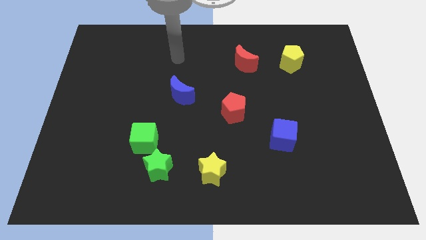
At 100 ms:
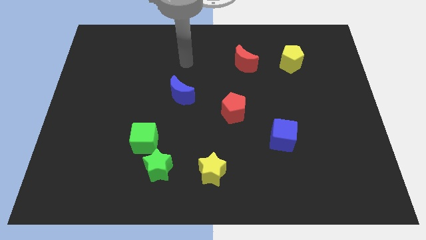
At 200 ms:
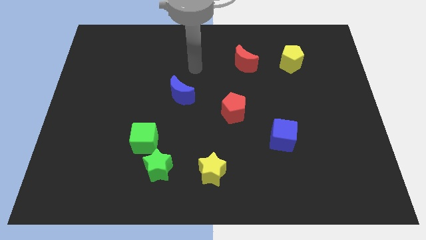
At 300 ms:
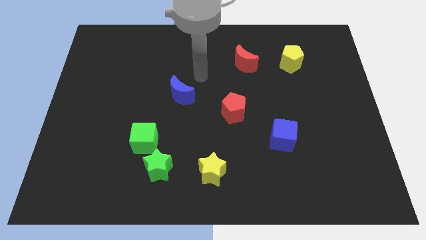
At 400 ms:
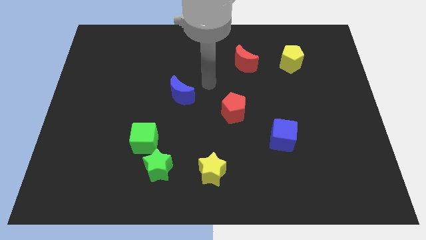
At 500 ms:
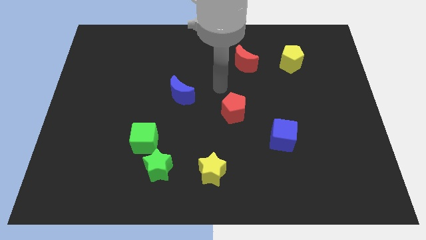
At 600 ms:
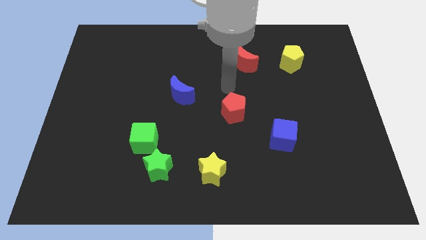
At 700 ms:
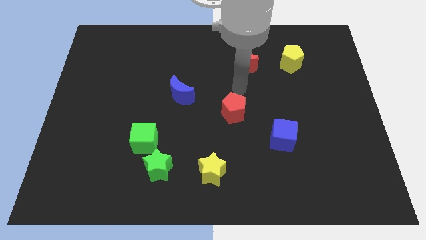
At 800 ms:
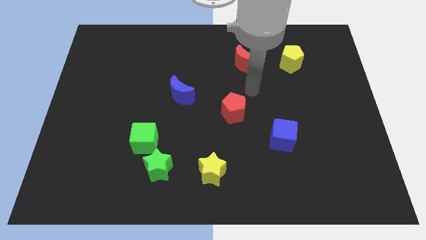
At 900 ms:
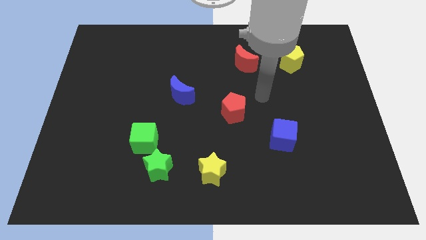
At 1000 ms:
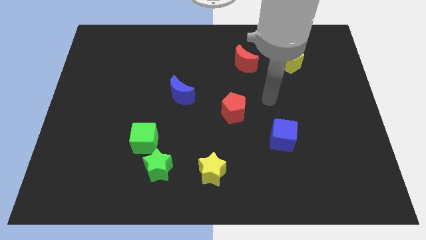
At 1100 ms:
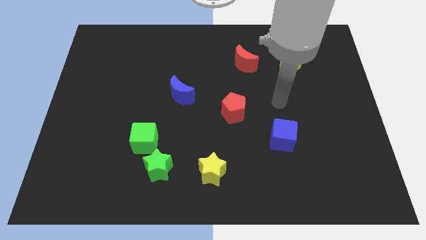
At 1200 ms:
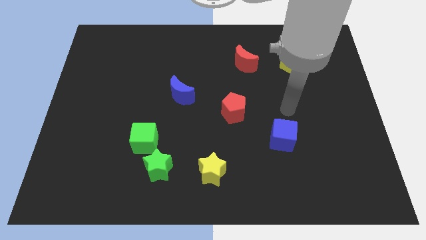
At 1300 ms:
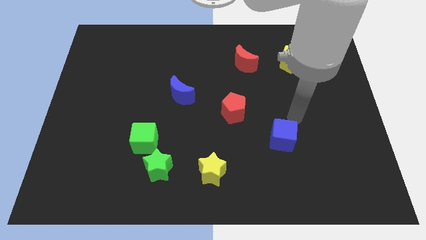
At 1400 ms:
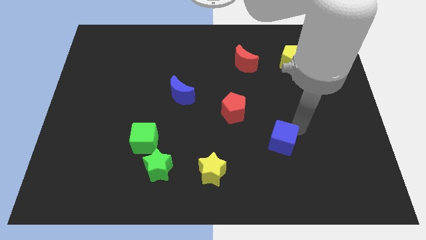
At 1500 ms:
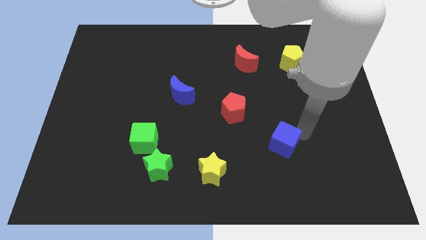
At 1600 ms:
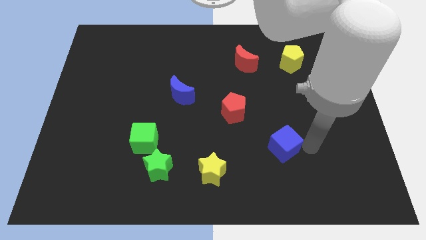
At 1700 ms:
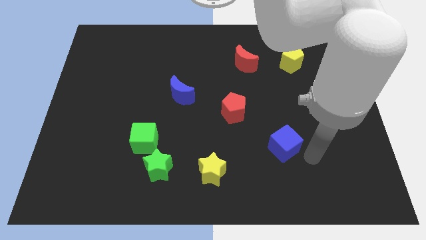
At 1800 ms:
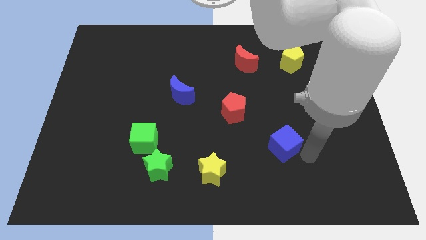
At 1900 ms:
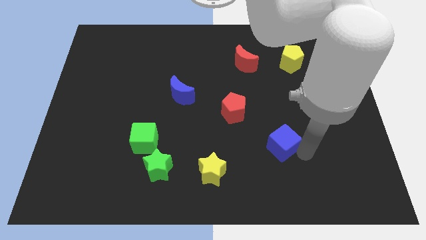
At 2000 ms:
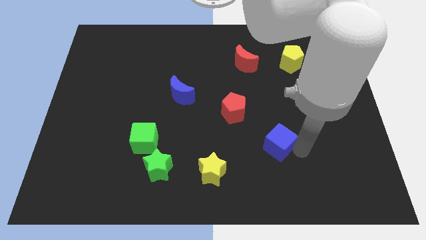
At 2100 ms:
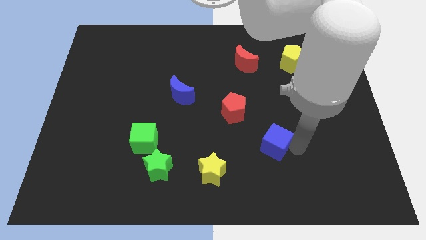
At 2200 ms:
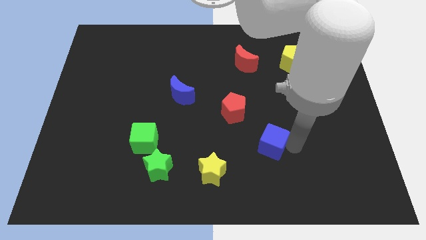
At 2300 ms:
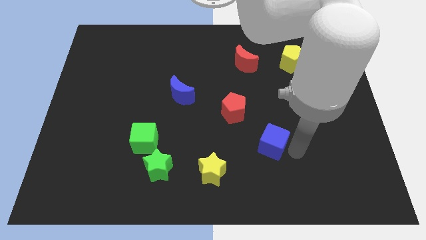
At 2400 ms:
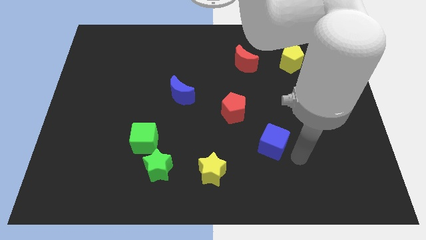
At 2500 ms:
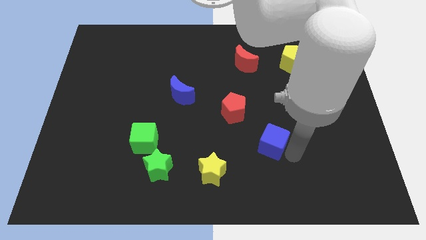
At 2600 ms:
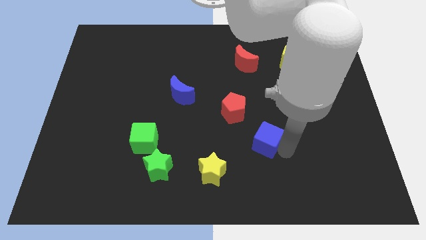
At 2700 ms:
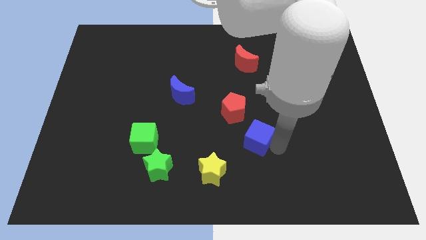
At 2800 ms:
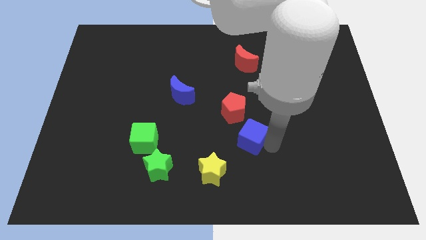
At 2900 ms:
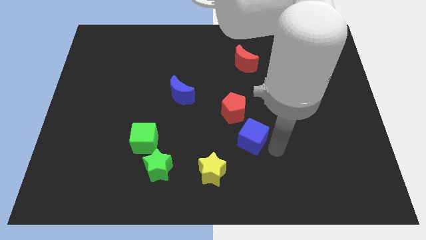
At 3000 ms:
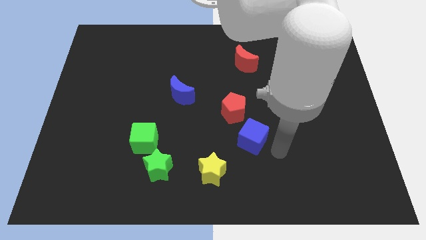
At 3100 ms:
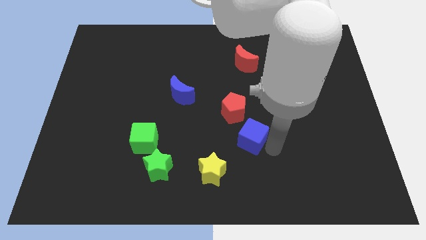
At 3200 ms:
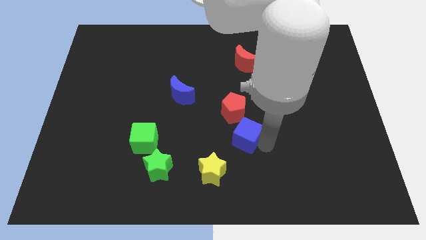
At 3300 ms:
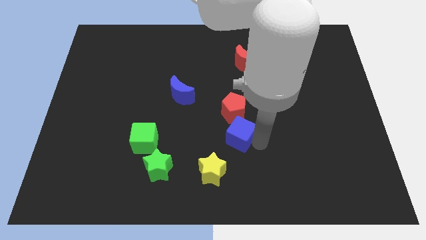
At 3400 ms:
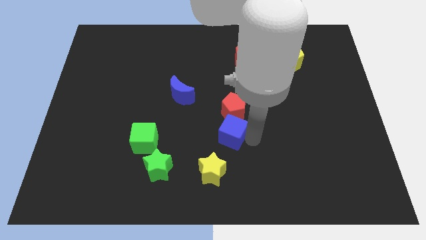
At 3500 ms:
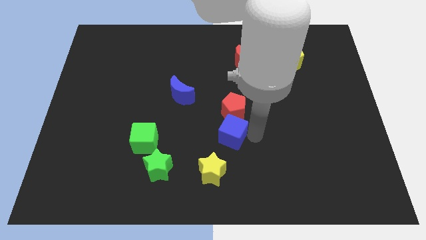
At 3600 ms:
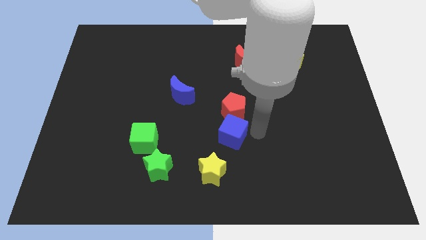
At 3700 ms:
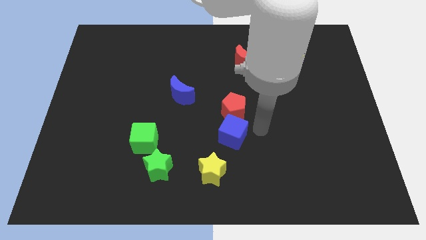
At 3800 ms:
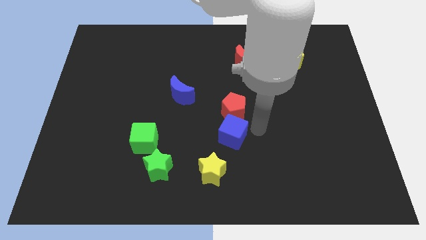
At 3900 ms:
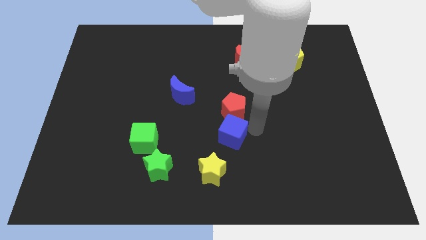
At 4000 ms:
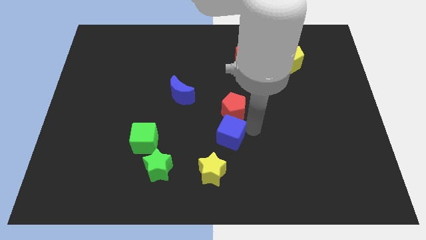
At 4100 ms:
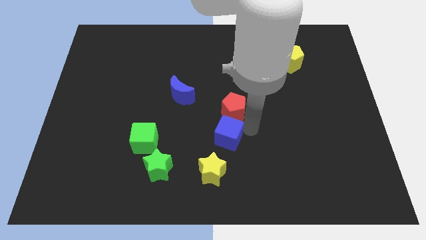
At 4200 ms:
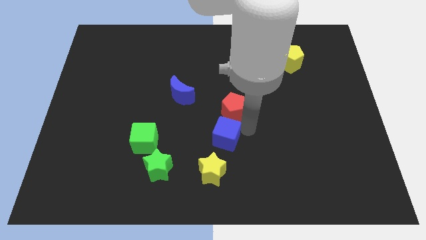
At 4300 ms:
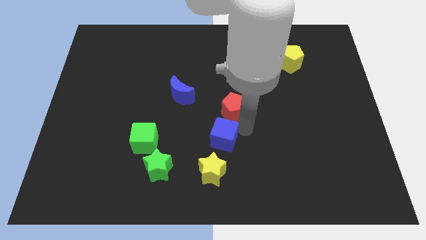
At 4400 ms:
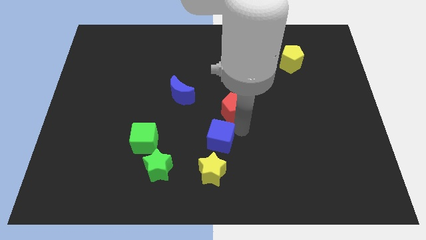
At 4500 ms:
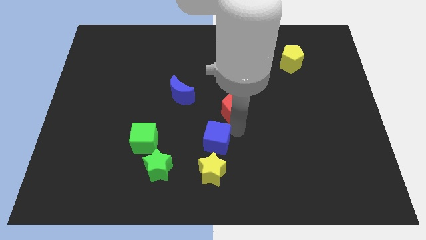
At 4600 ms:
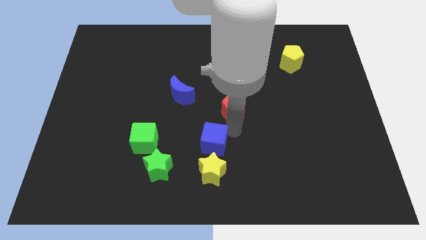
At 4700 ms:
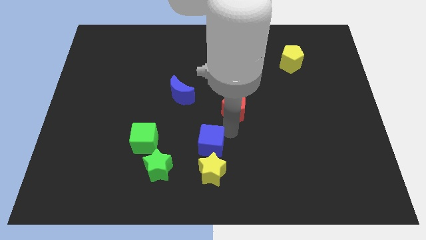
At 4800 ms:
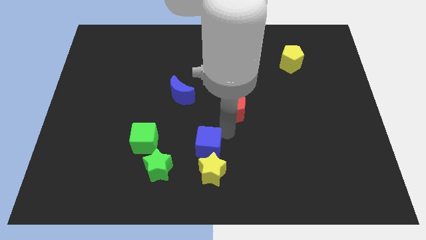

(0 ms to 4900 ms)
push the blue cube diagonally up and to the right of the green star
